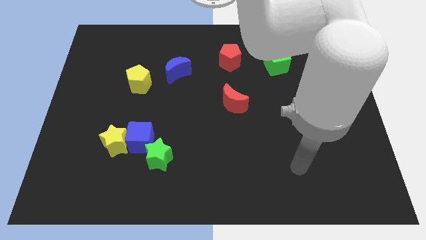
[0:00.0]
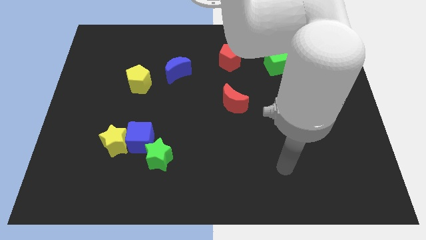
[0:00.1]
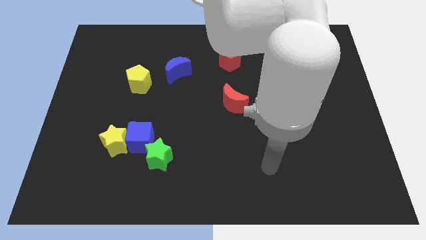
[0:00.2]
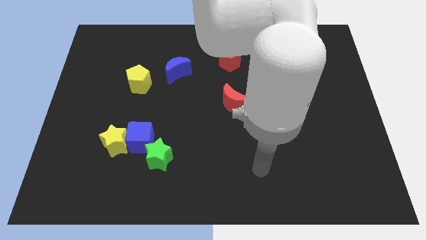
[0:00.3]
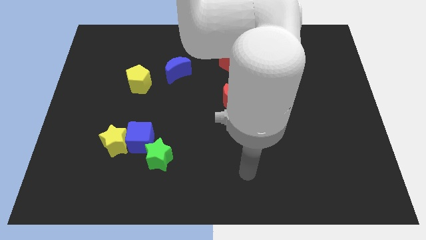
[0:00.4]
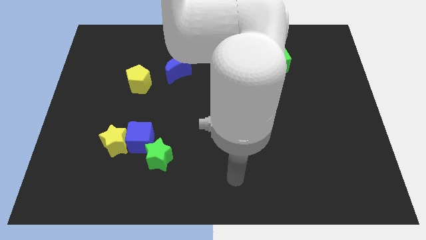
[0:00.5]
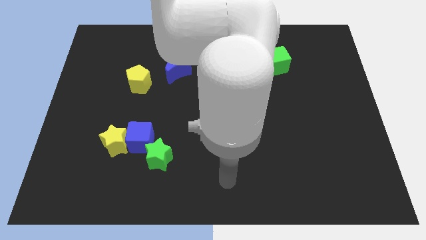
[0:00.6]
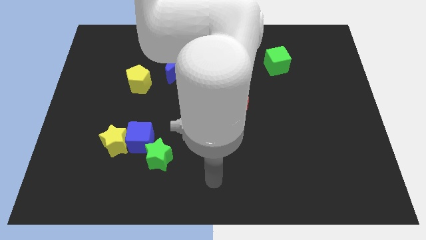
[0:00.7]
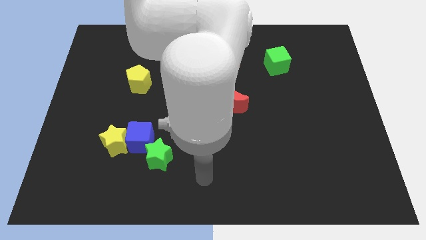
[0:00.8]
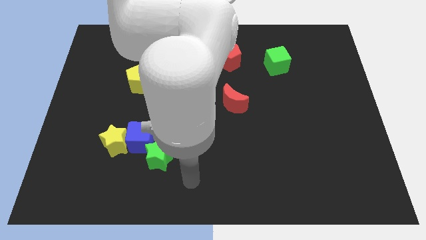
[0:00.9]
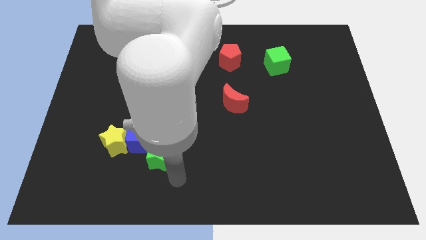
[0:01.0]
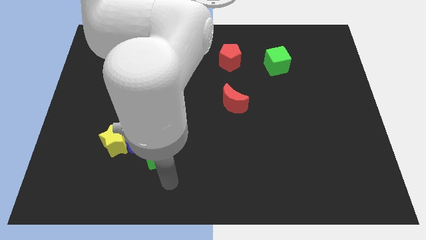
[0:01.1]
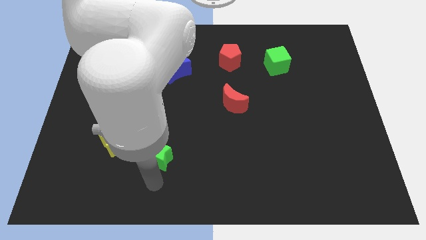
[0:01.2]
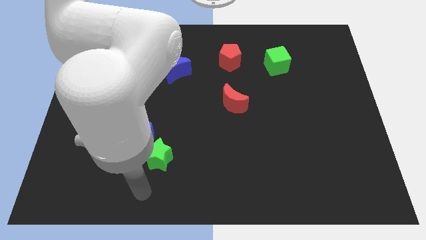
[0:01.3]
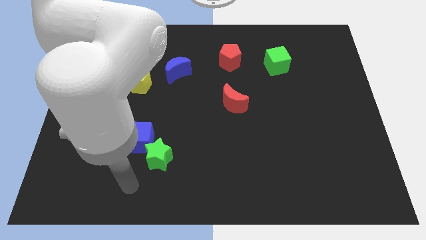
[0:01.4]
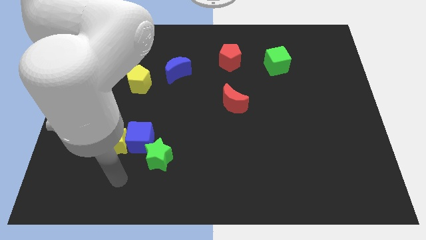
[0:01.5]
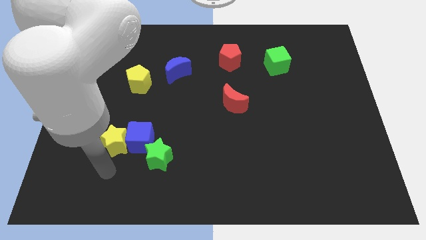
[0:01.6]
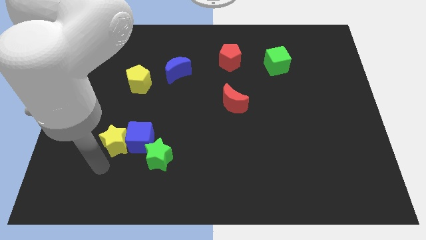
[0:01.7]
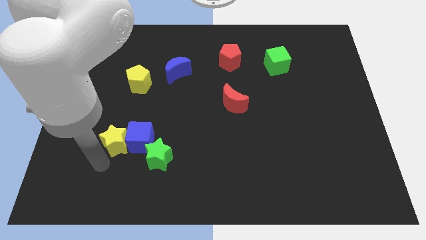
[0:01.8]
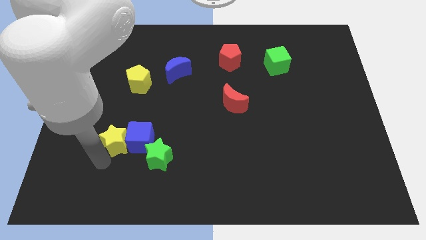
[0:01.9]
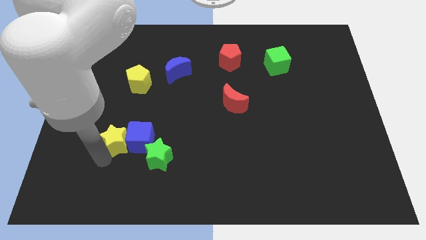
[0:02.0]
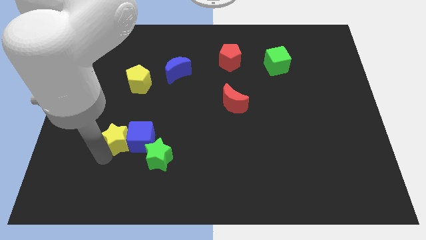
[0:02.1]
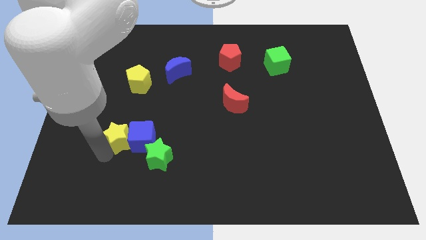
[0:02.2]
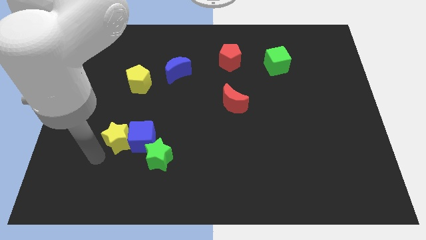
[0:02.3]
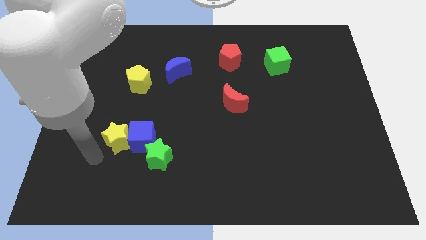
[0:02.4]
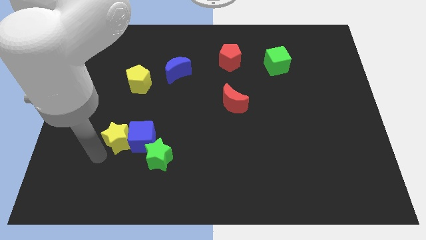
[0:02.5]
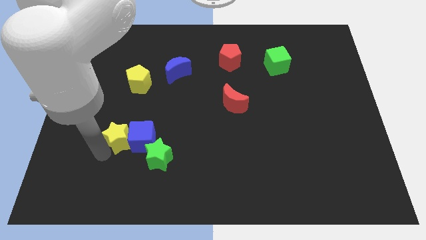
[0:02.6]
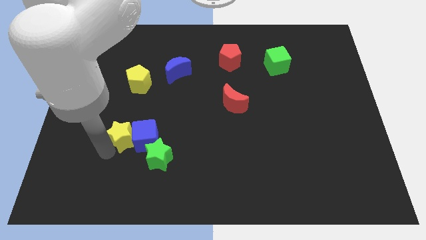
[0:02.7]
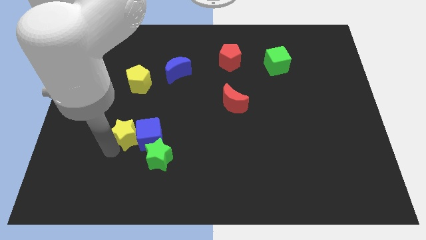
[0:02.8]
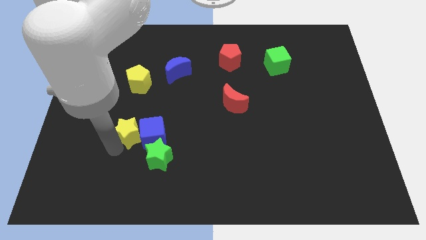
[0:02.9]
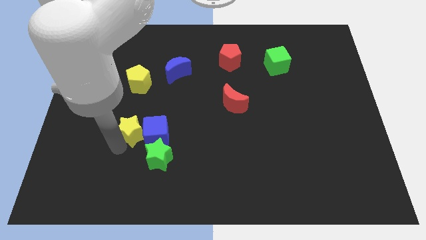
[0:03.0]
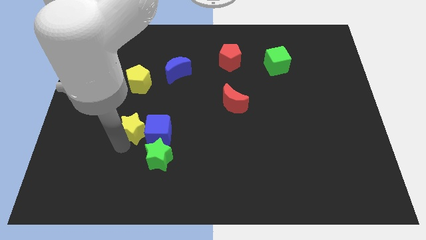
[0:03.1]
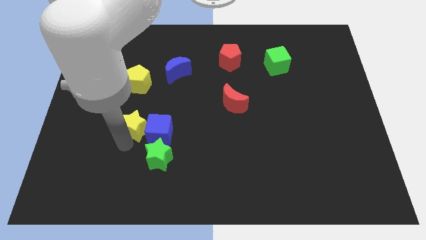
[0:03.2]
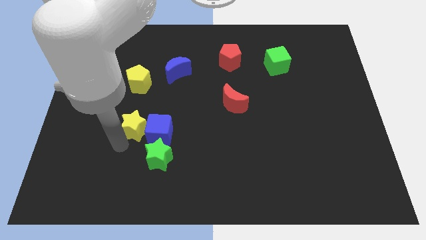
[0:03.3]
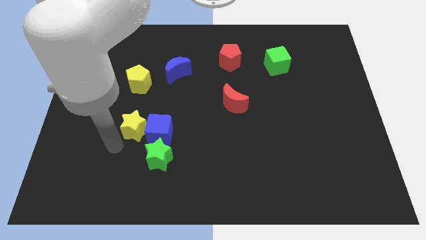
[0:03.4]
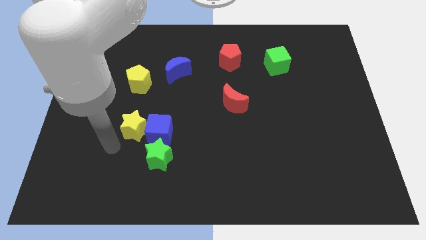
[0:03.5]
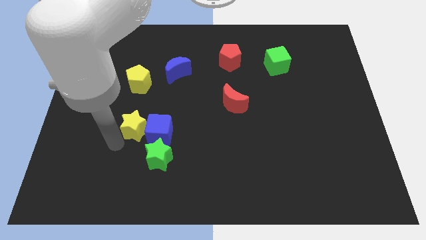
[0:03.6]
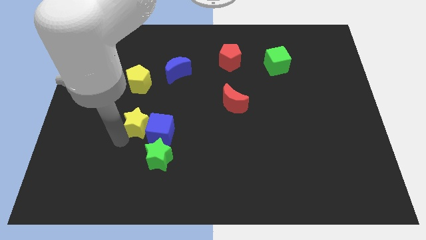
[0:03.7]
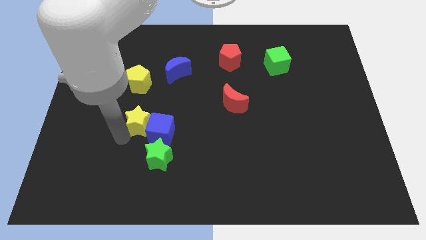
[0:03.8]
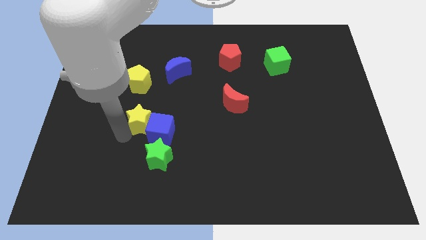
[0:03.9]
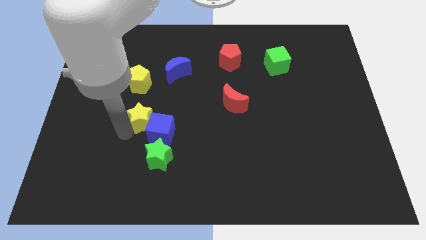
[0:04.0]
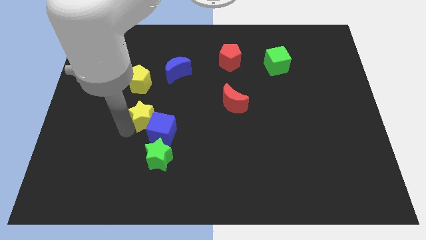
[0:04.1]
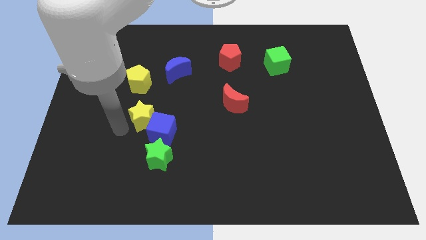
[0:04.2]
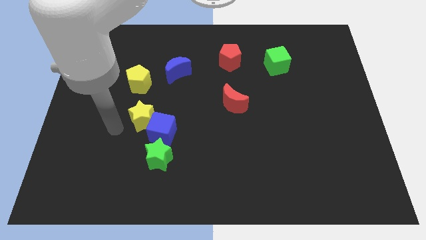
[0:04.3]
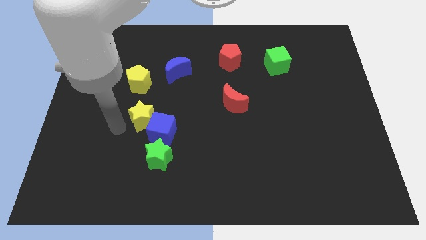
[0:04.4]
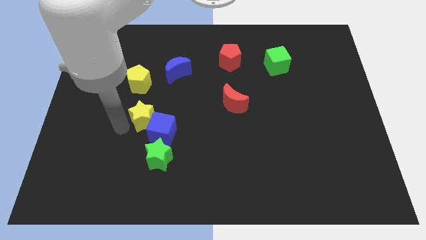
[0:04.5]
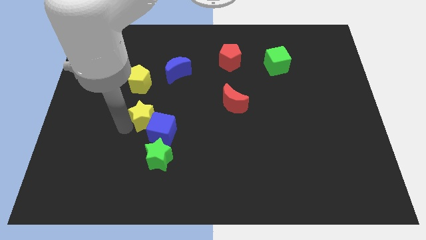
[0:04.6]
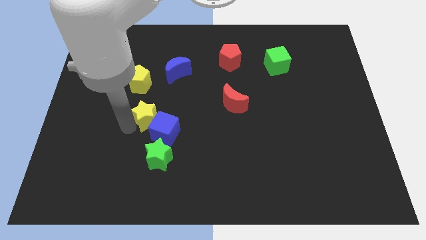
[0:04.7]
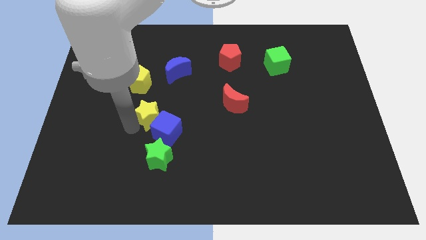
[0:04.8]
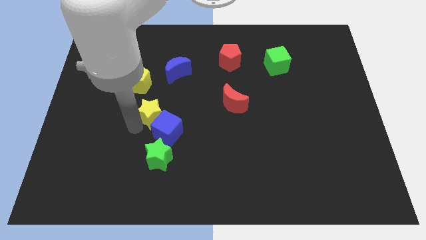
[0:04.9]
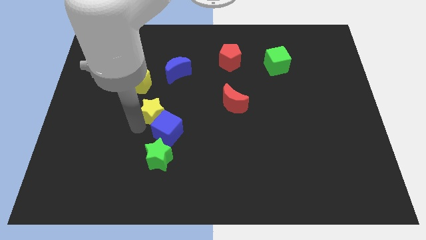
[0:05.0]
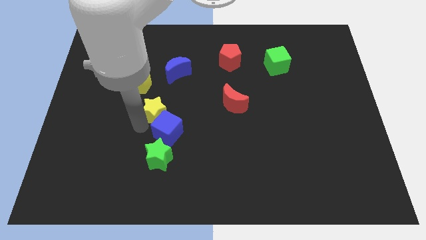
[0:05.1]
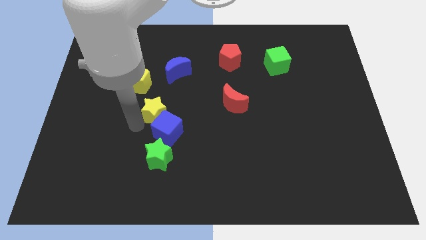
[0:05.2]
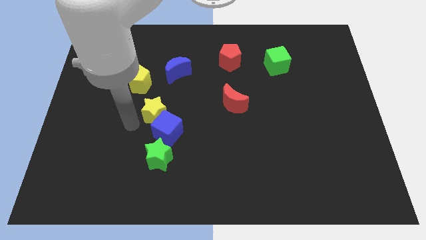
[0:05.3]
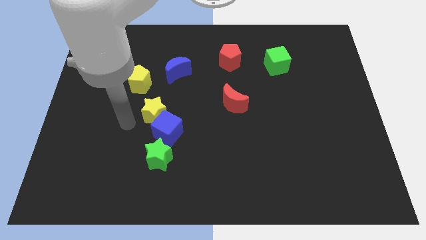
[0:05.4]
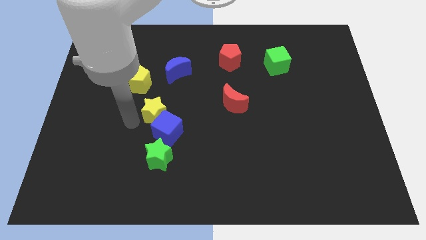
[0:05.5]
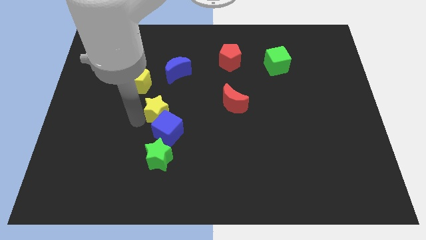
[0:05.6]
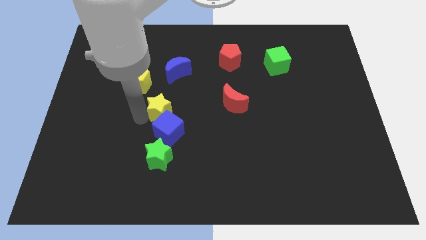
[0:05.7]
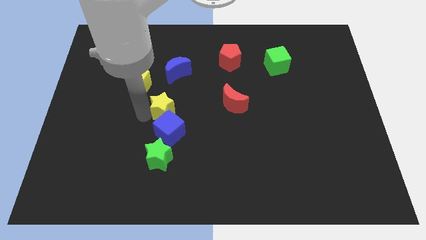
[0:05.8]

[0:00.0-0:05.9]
put the yellow star to the middle

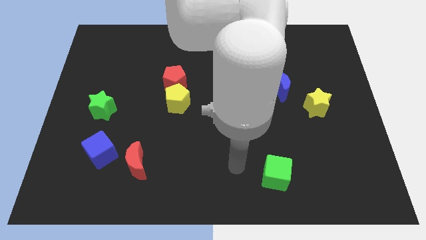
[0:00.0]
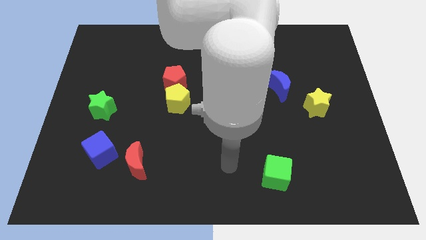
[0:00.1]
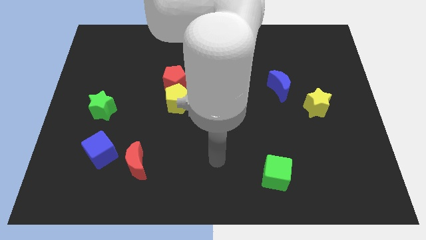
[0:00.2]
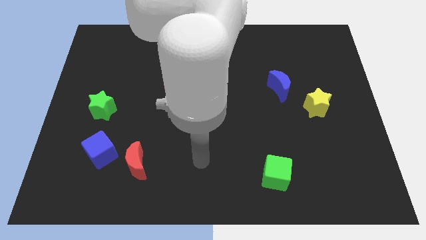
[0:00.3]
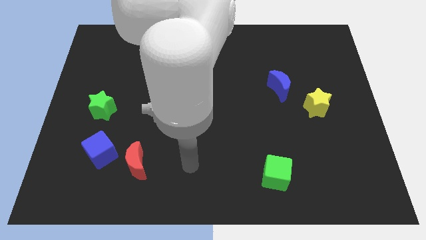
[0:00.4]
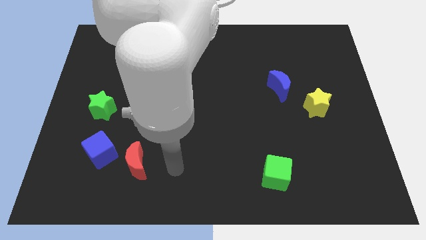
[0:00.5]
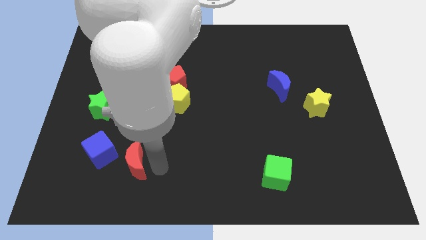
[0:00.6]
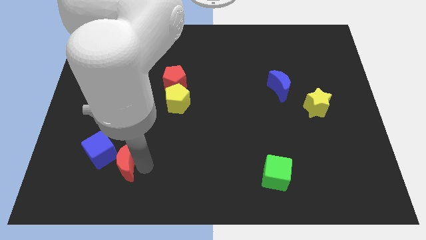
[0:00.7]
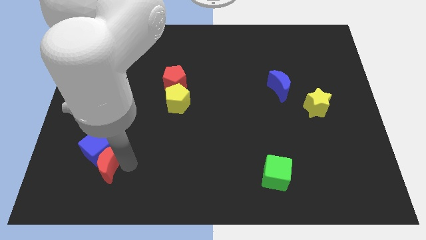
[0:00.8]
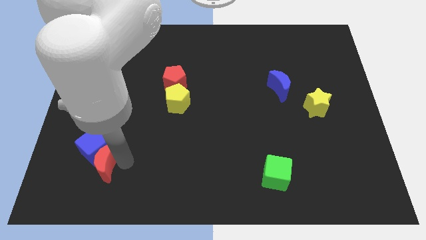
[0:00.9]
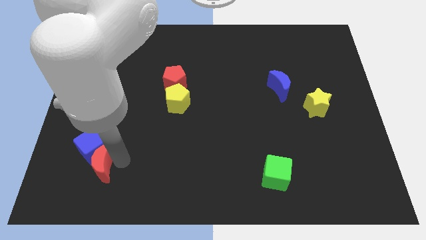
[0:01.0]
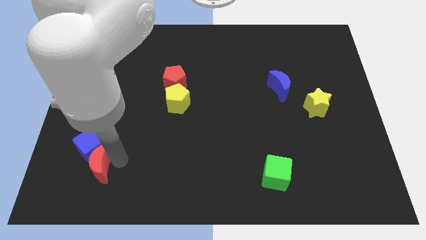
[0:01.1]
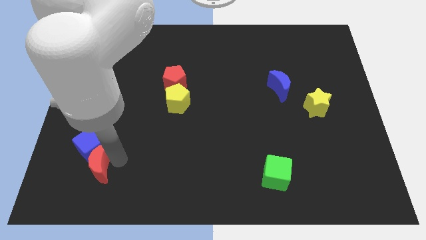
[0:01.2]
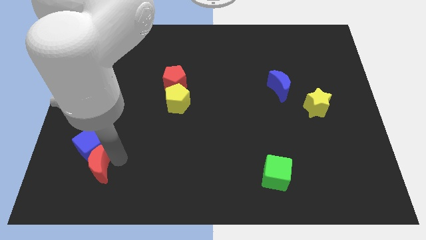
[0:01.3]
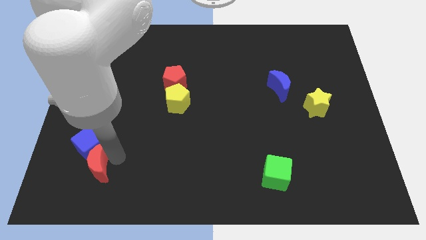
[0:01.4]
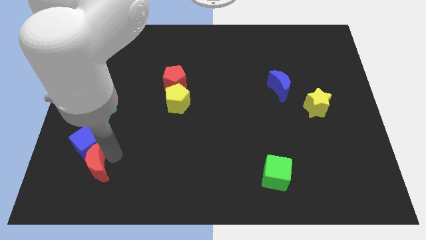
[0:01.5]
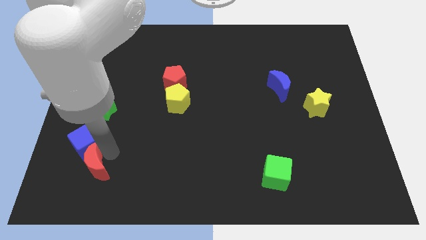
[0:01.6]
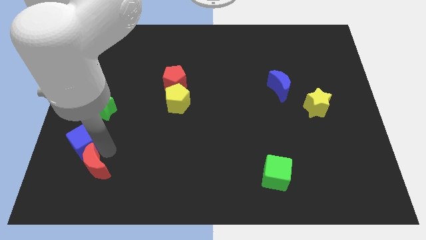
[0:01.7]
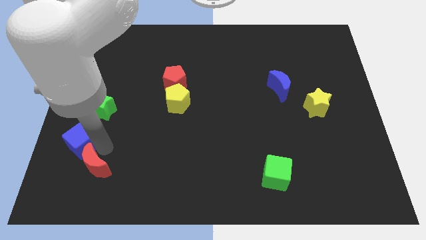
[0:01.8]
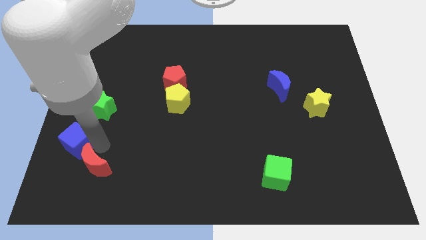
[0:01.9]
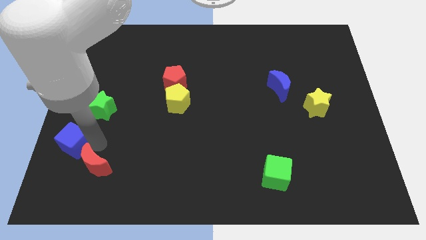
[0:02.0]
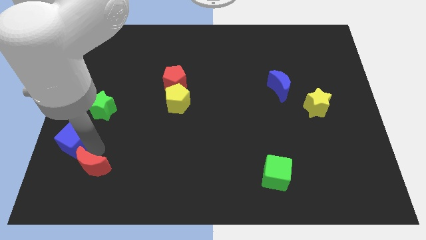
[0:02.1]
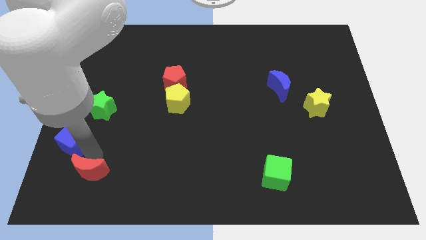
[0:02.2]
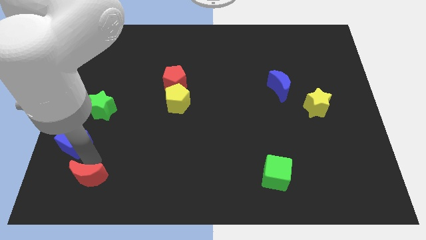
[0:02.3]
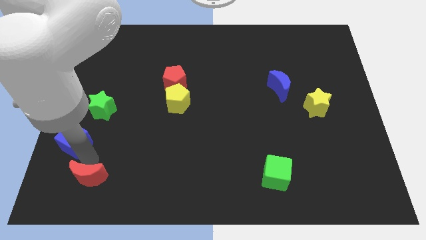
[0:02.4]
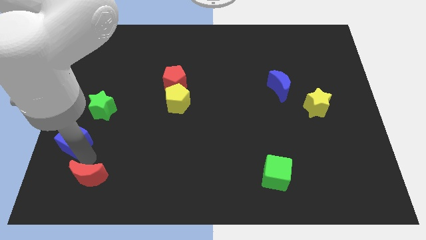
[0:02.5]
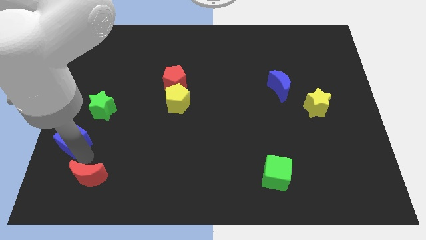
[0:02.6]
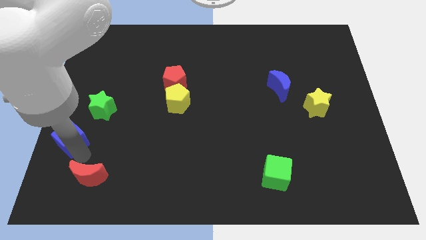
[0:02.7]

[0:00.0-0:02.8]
put the blue cube to the center left
